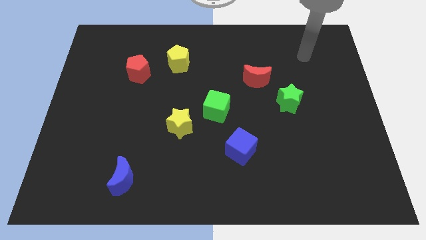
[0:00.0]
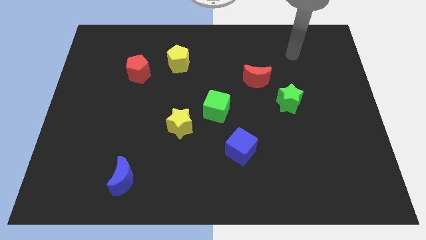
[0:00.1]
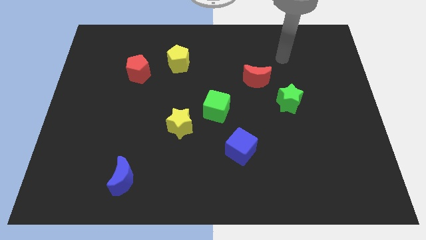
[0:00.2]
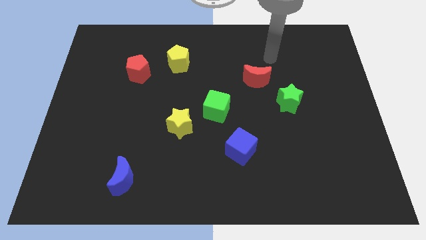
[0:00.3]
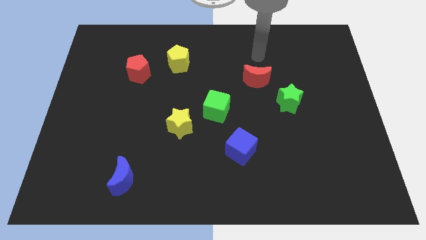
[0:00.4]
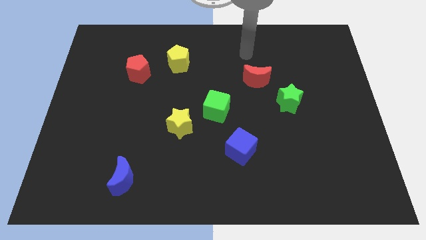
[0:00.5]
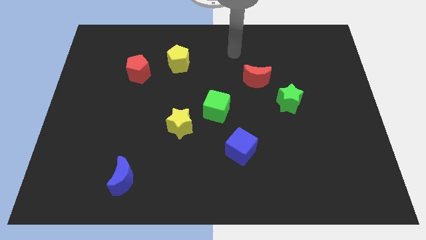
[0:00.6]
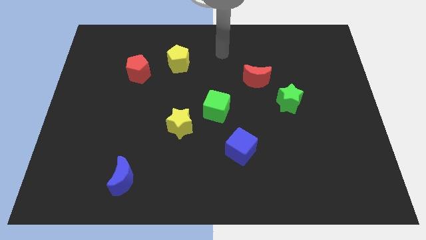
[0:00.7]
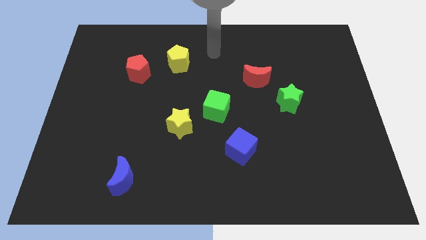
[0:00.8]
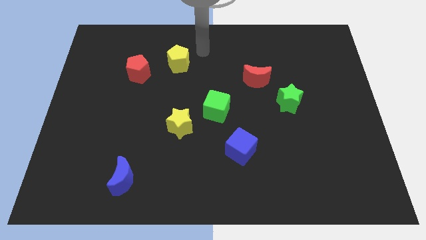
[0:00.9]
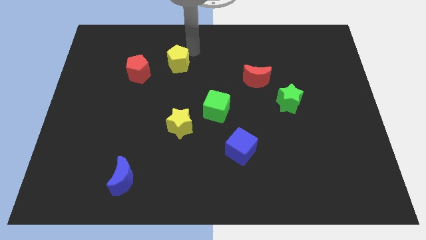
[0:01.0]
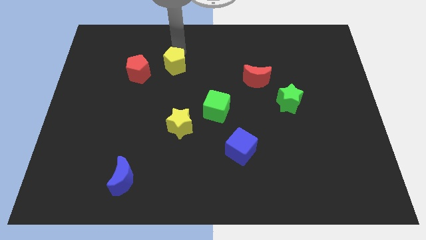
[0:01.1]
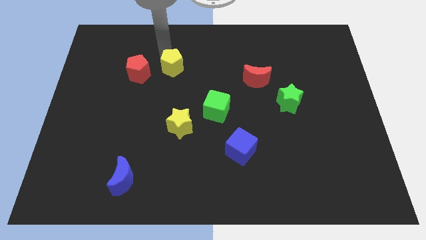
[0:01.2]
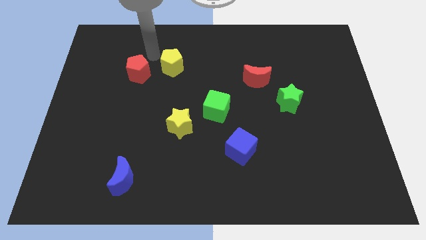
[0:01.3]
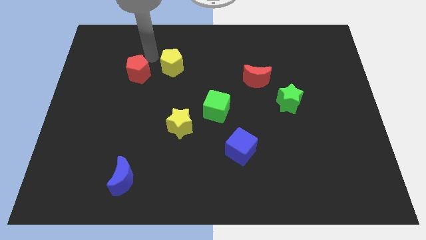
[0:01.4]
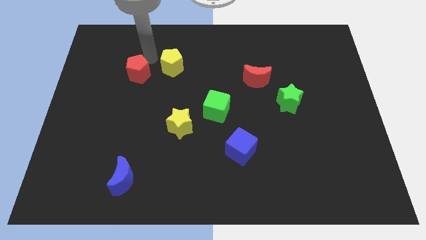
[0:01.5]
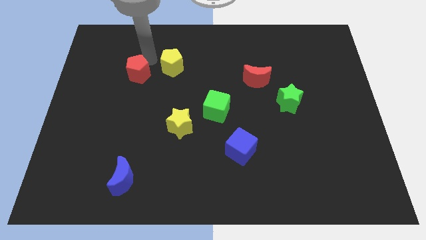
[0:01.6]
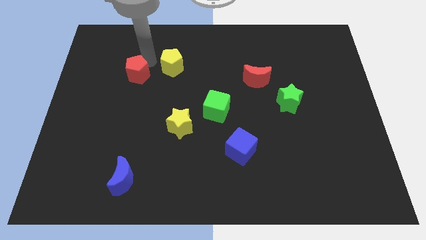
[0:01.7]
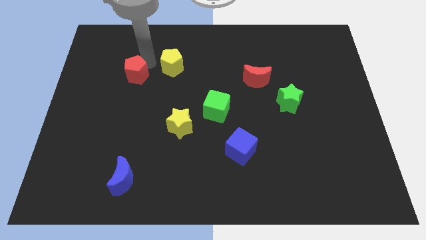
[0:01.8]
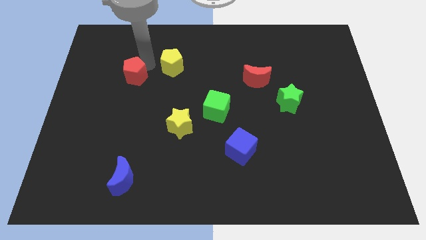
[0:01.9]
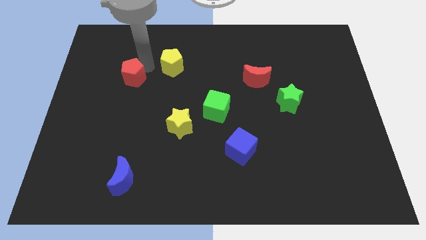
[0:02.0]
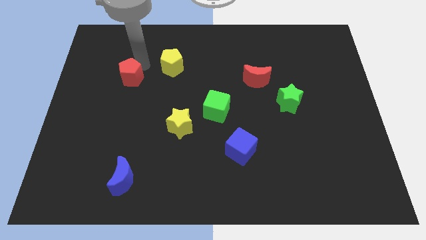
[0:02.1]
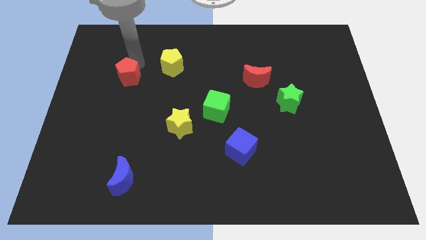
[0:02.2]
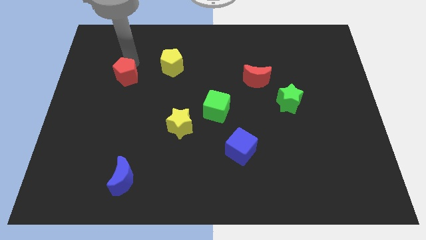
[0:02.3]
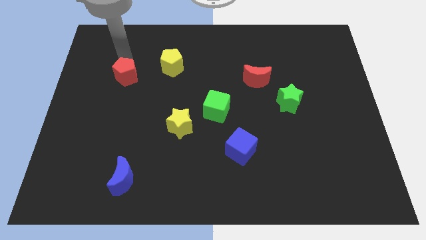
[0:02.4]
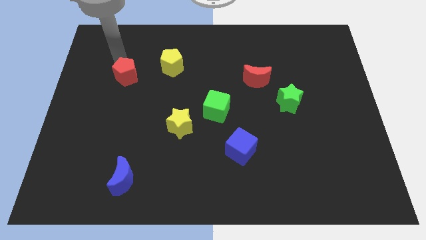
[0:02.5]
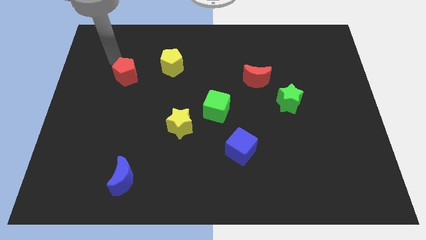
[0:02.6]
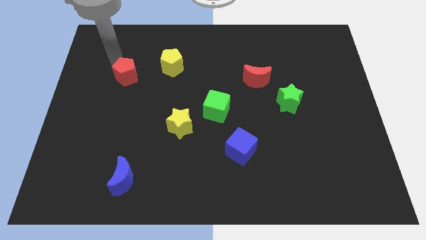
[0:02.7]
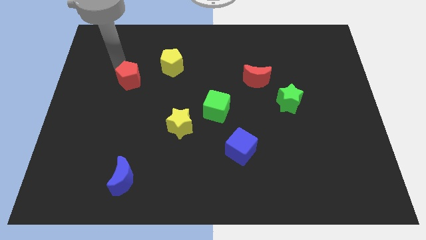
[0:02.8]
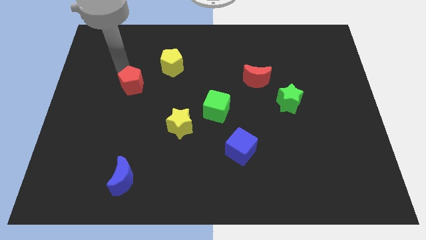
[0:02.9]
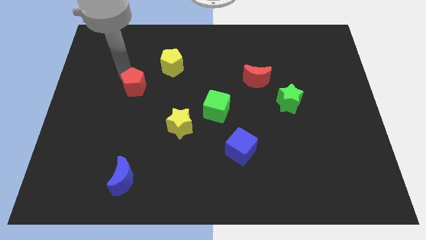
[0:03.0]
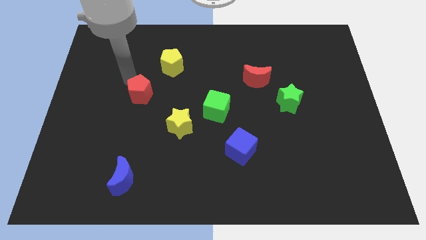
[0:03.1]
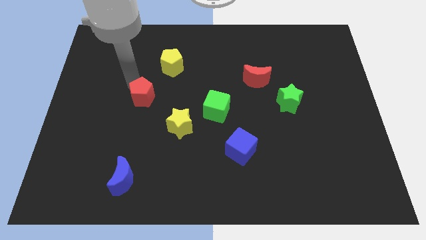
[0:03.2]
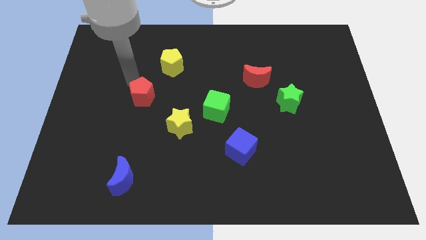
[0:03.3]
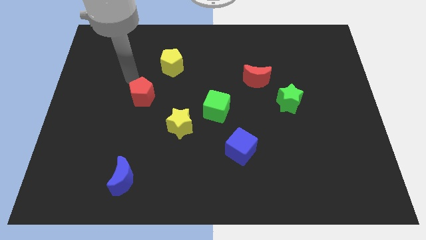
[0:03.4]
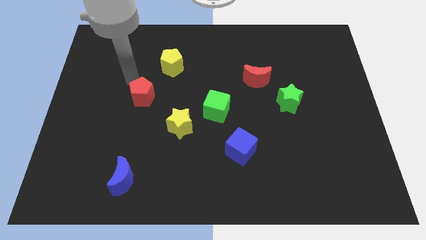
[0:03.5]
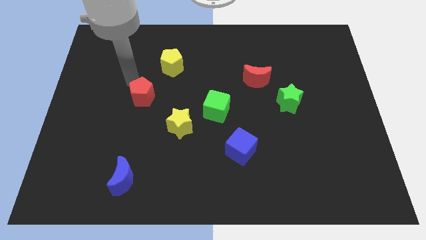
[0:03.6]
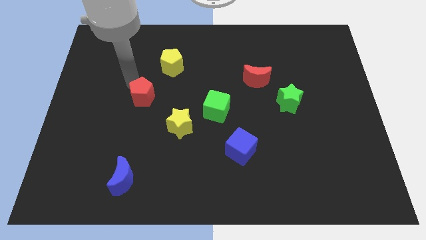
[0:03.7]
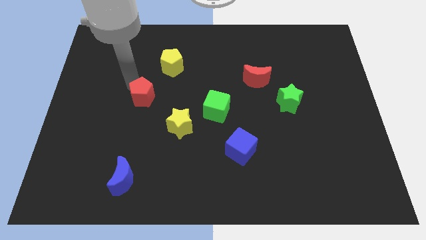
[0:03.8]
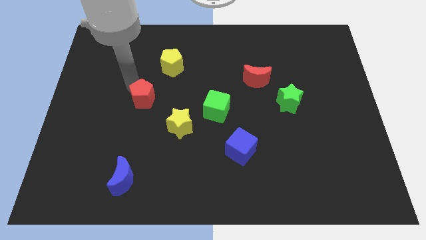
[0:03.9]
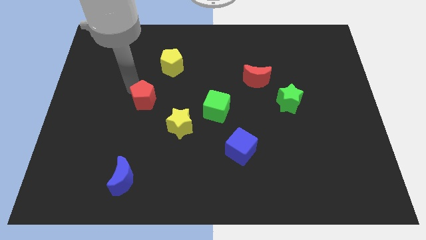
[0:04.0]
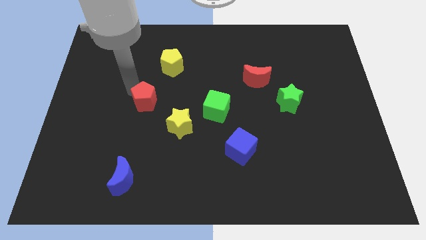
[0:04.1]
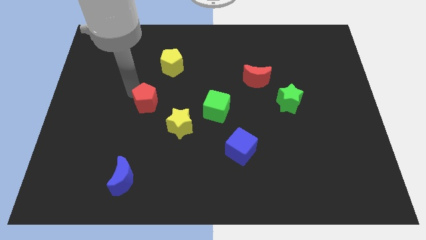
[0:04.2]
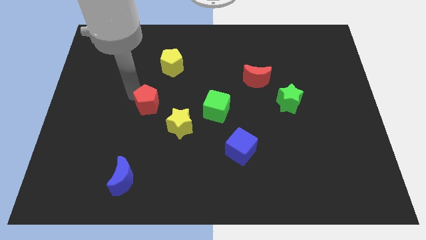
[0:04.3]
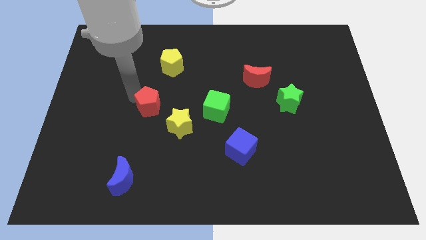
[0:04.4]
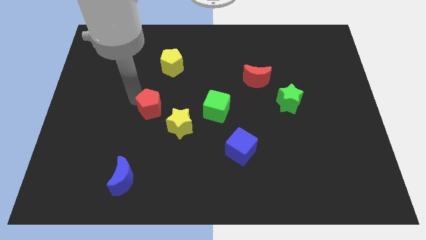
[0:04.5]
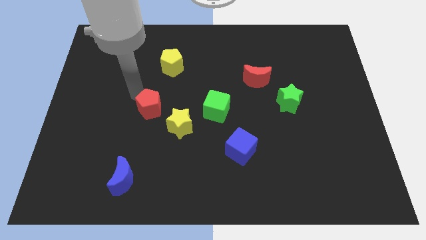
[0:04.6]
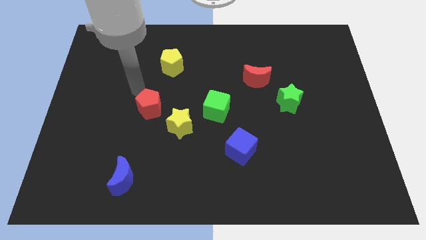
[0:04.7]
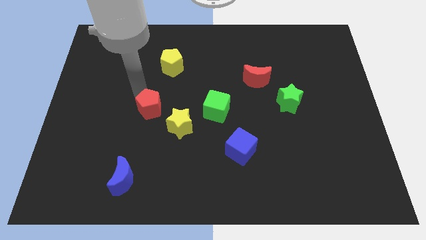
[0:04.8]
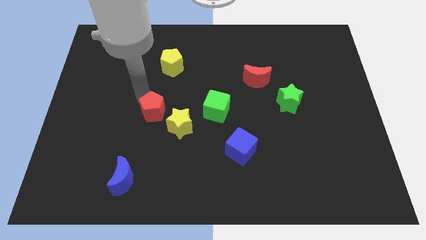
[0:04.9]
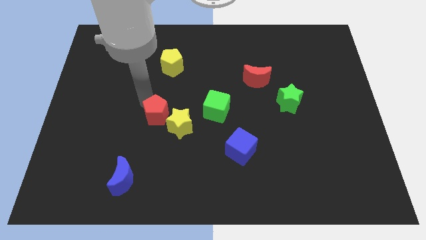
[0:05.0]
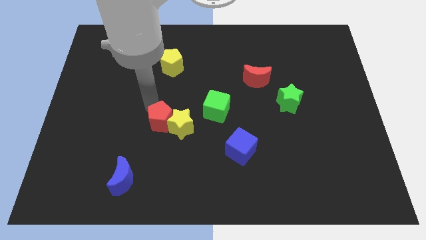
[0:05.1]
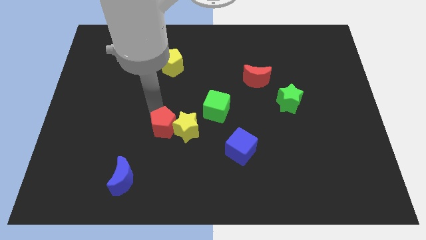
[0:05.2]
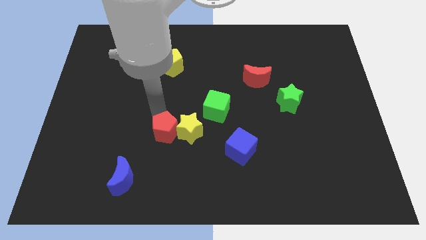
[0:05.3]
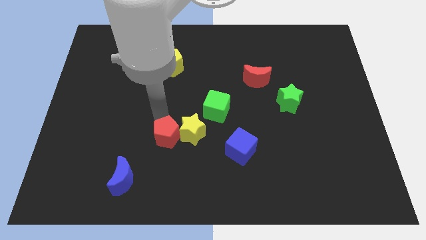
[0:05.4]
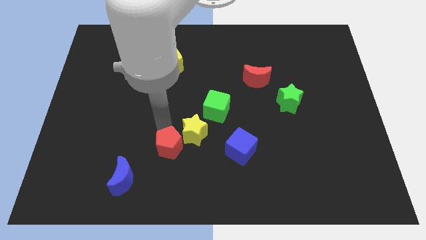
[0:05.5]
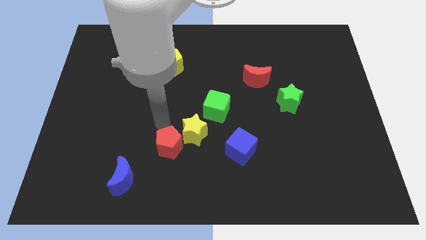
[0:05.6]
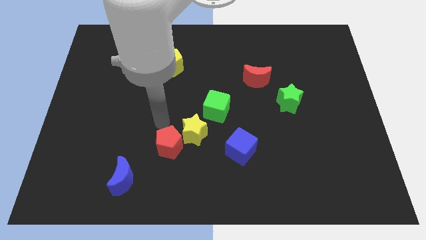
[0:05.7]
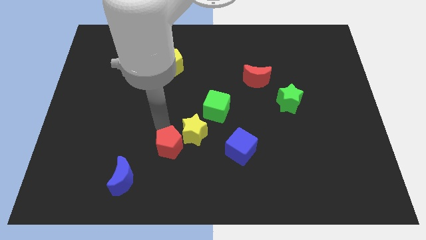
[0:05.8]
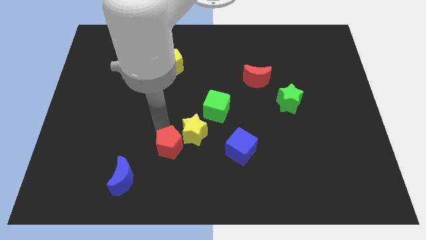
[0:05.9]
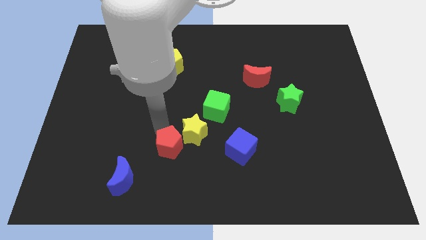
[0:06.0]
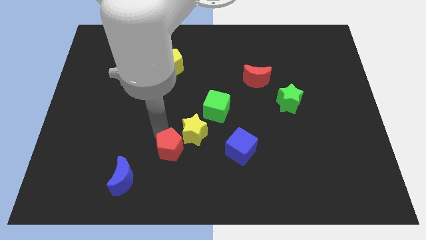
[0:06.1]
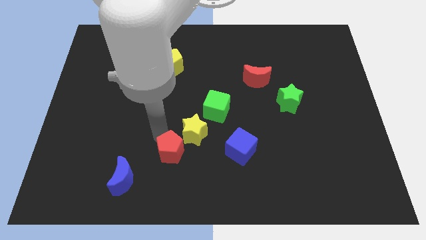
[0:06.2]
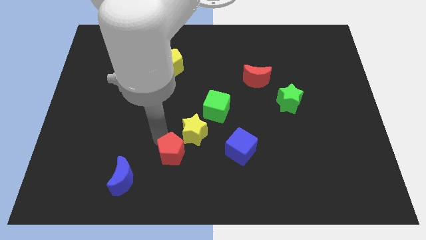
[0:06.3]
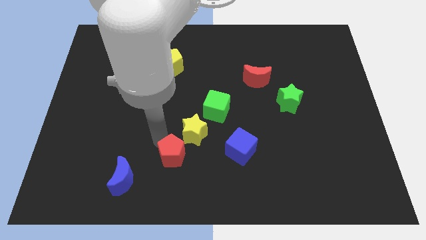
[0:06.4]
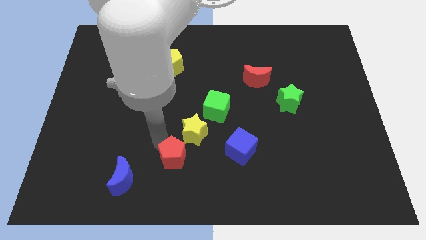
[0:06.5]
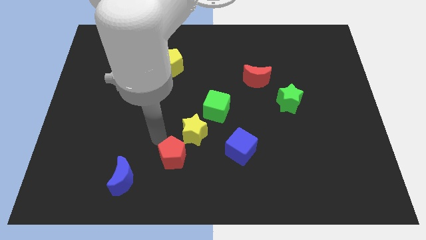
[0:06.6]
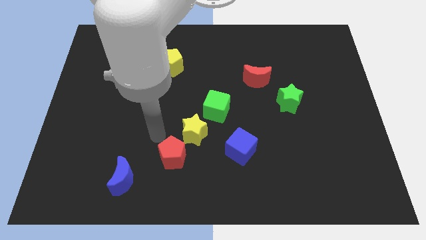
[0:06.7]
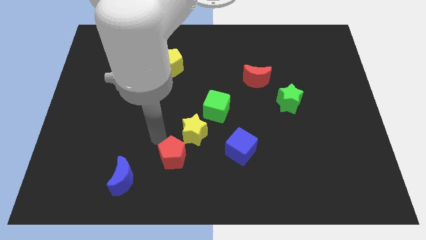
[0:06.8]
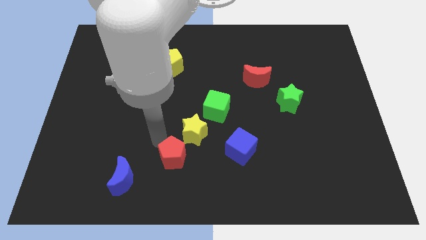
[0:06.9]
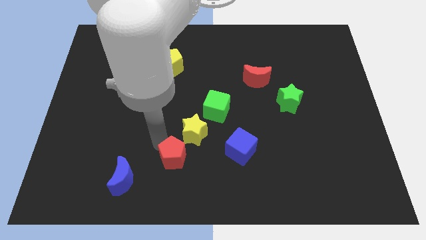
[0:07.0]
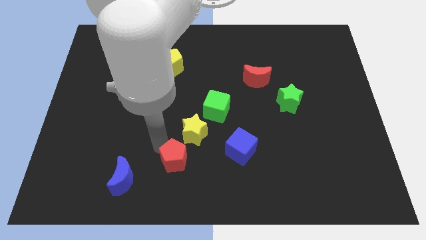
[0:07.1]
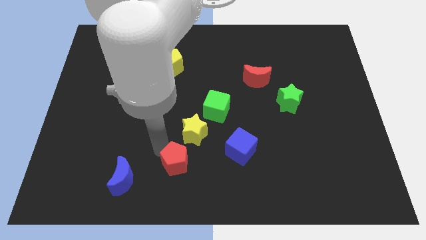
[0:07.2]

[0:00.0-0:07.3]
put the red pentagon to the bottom side
